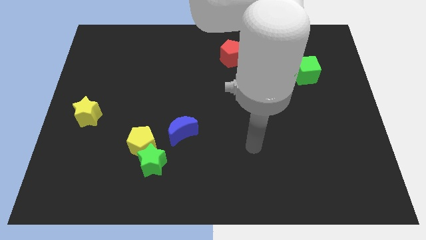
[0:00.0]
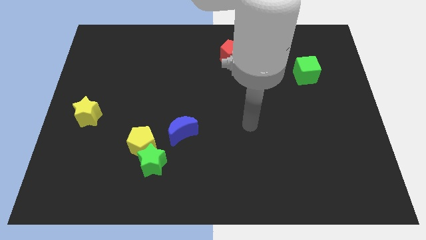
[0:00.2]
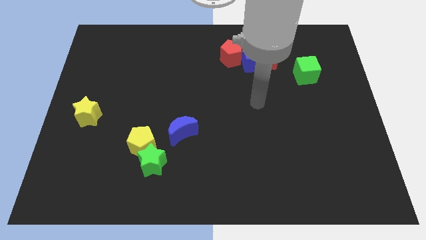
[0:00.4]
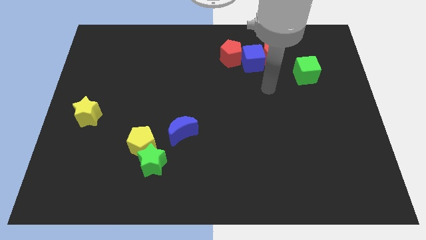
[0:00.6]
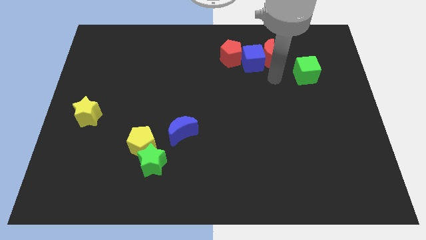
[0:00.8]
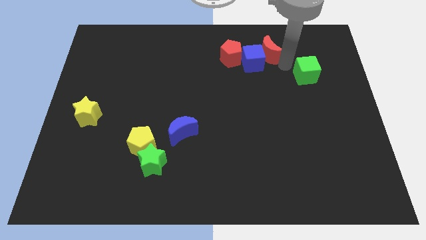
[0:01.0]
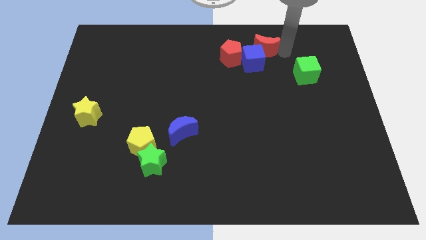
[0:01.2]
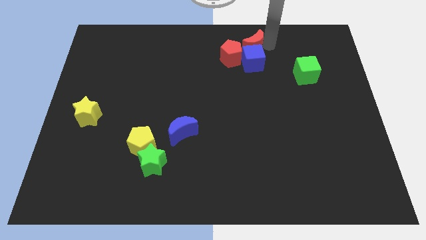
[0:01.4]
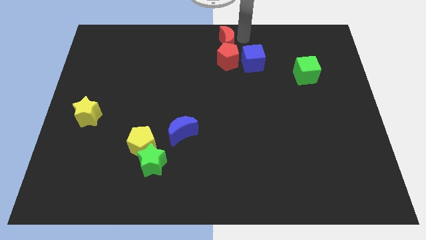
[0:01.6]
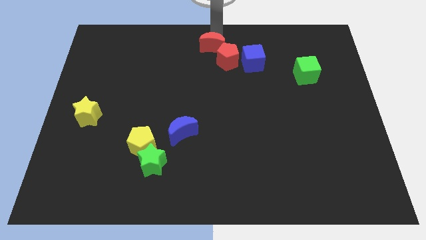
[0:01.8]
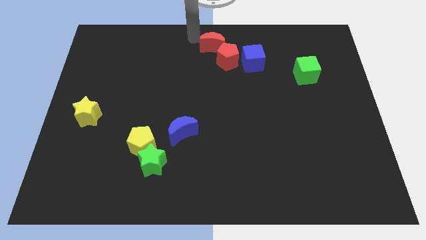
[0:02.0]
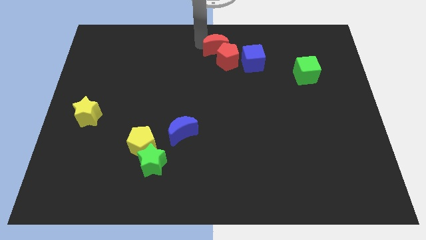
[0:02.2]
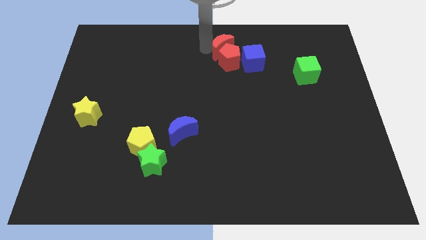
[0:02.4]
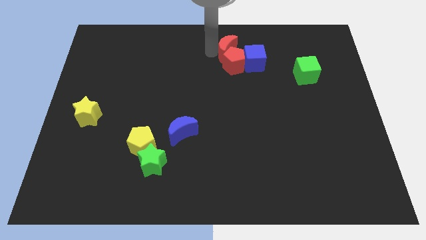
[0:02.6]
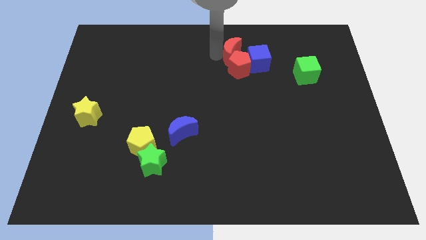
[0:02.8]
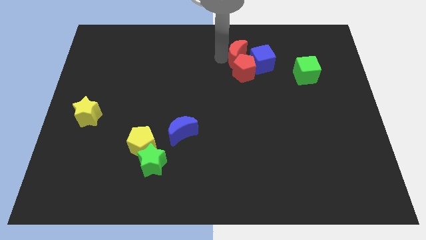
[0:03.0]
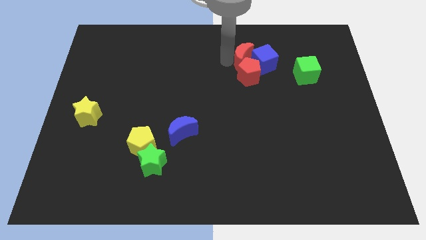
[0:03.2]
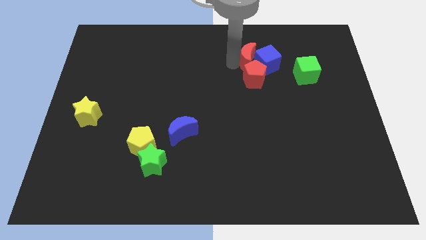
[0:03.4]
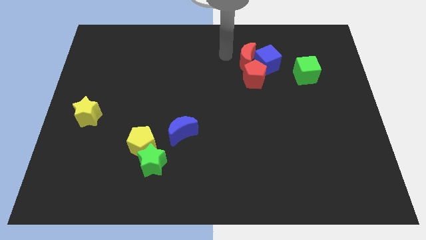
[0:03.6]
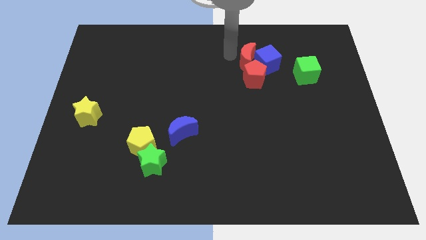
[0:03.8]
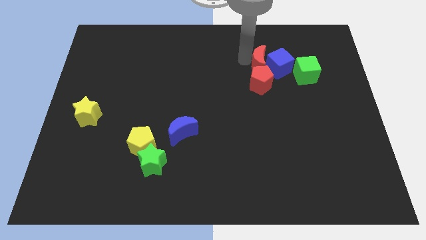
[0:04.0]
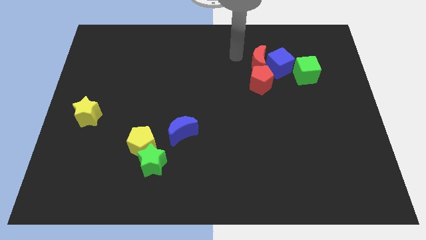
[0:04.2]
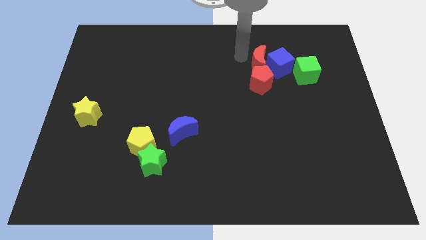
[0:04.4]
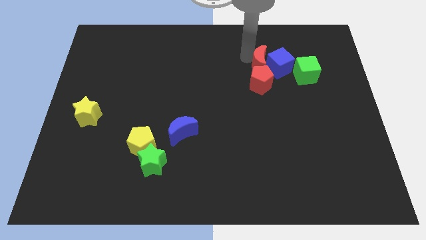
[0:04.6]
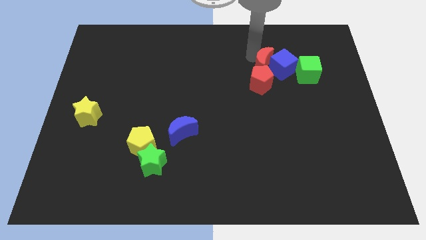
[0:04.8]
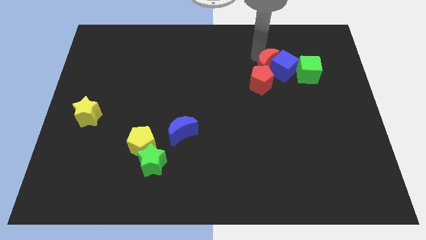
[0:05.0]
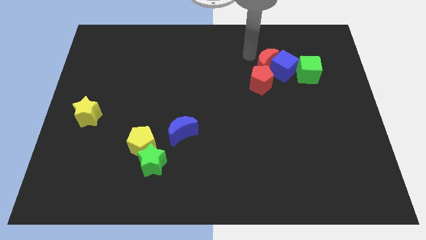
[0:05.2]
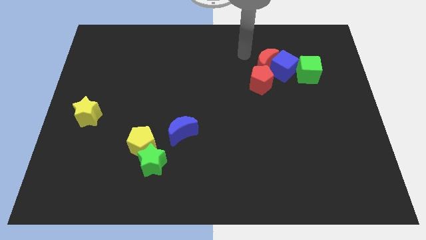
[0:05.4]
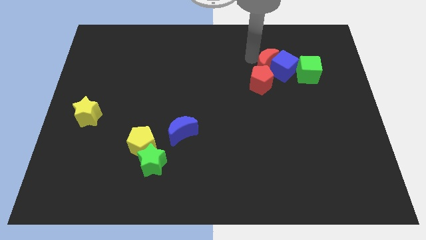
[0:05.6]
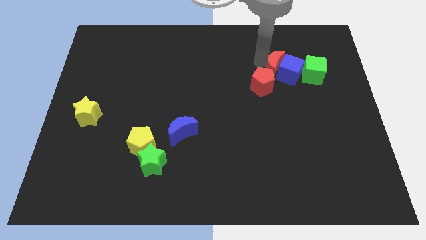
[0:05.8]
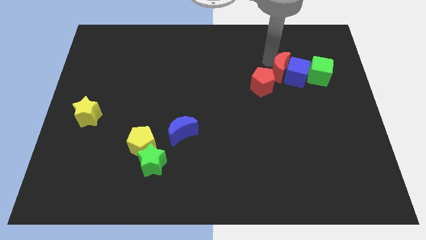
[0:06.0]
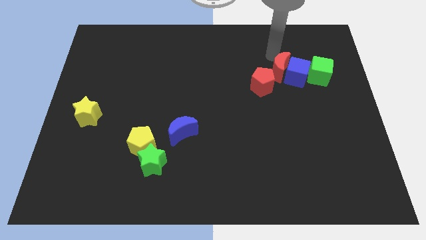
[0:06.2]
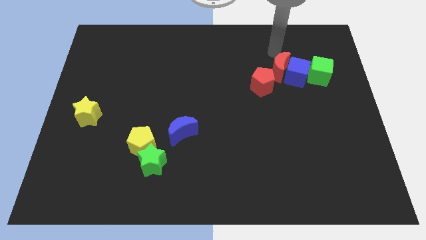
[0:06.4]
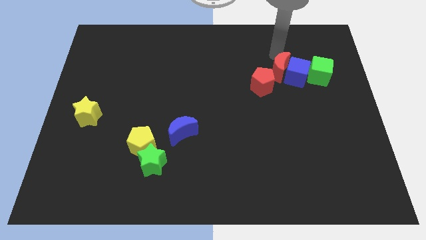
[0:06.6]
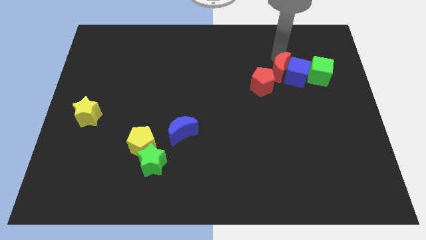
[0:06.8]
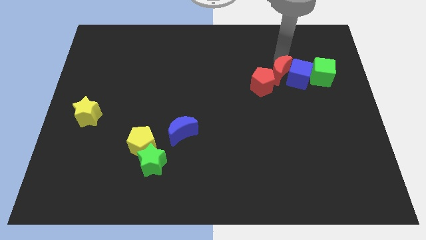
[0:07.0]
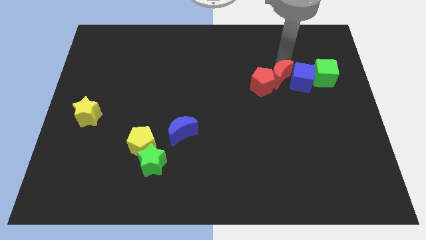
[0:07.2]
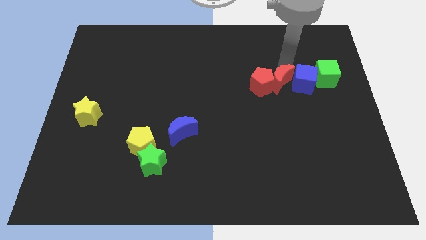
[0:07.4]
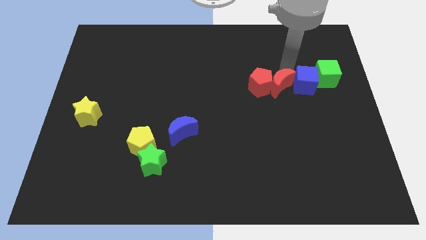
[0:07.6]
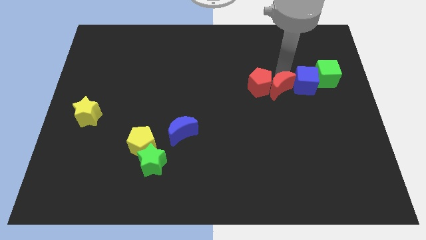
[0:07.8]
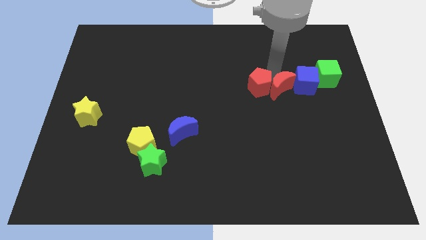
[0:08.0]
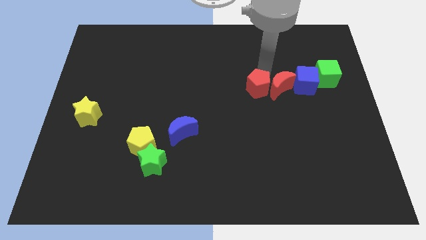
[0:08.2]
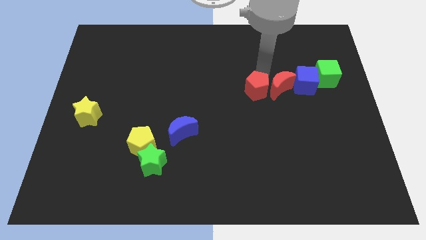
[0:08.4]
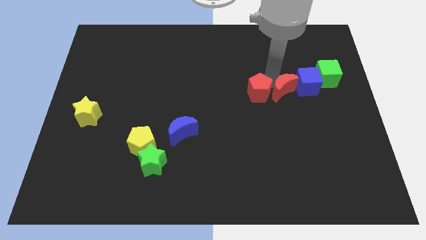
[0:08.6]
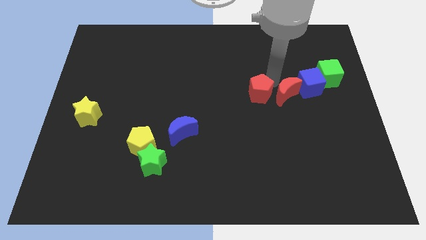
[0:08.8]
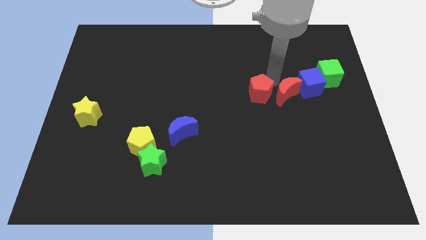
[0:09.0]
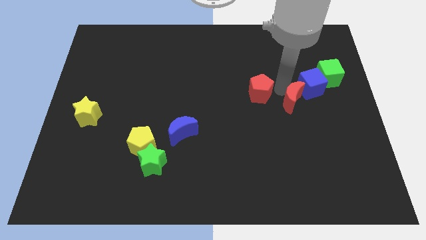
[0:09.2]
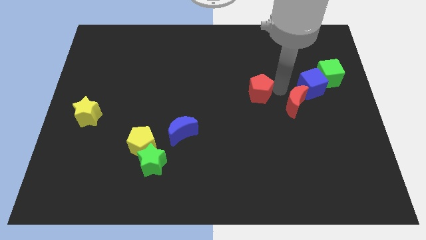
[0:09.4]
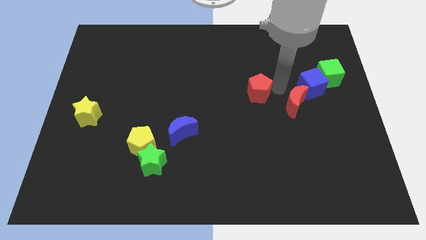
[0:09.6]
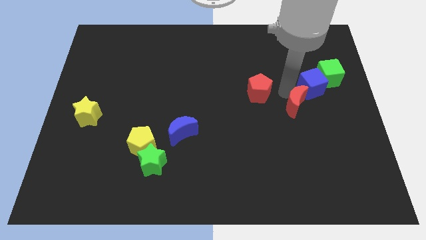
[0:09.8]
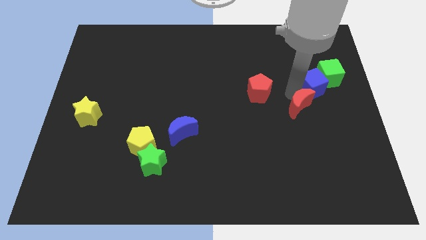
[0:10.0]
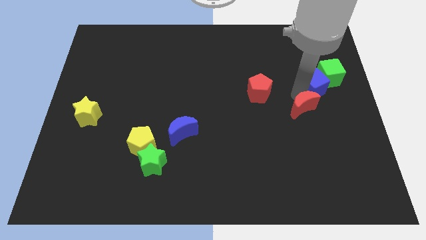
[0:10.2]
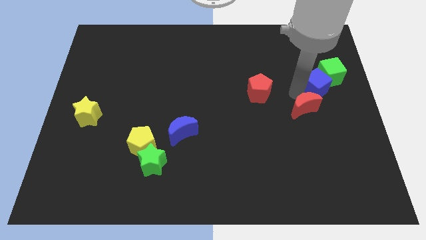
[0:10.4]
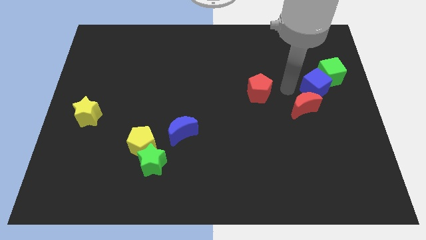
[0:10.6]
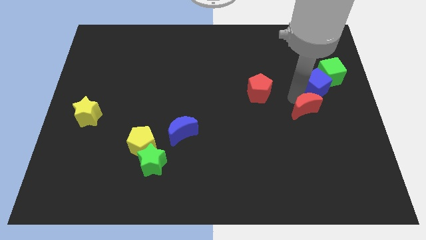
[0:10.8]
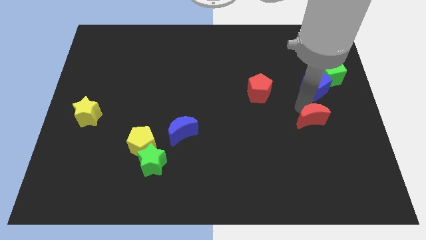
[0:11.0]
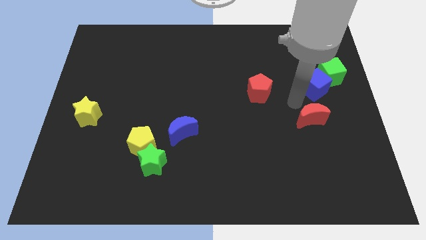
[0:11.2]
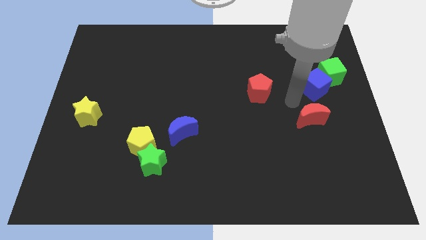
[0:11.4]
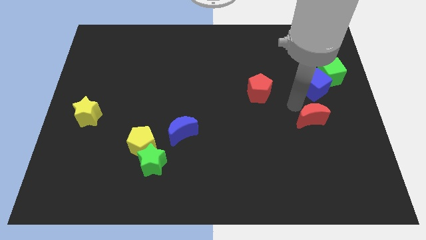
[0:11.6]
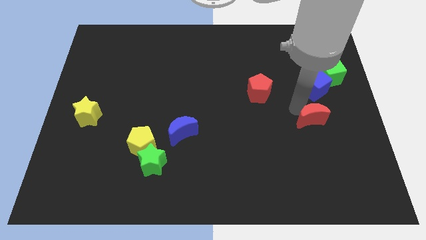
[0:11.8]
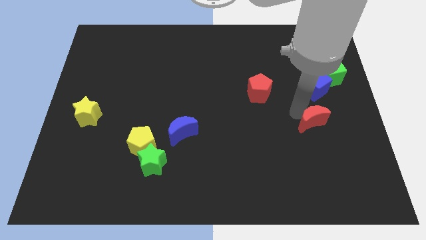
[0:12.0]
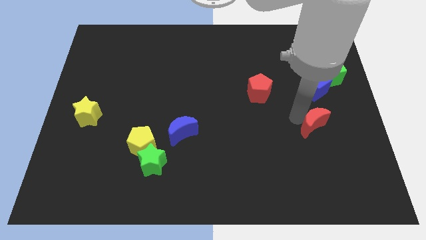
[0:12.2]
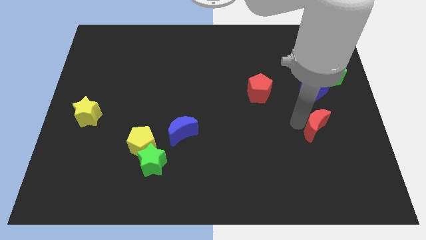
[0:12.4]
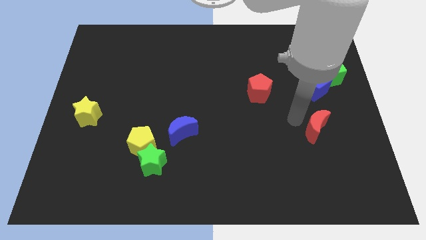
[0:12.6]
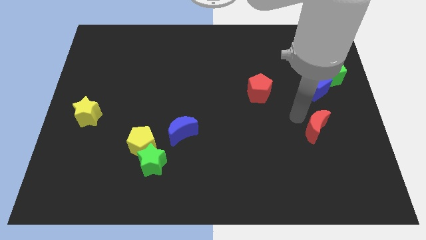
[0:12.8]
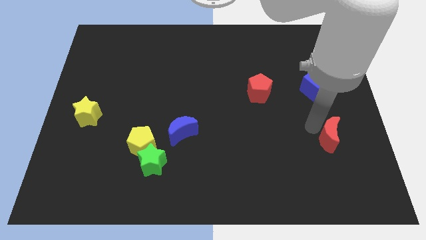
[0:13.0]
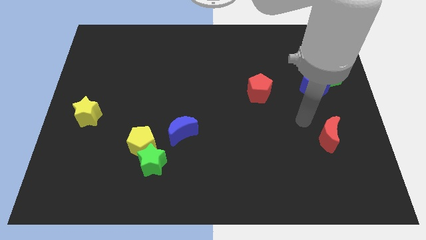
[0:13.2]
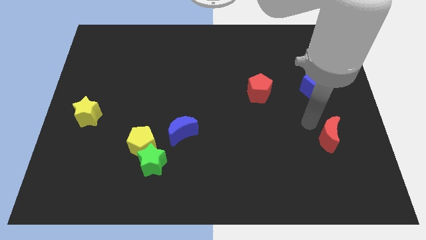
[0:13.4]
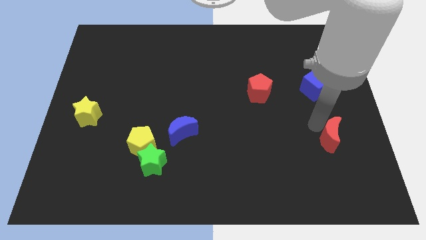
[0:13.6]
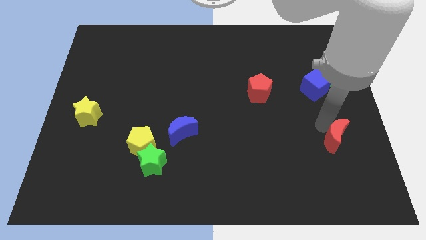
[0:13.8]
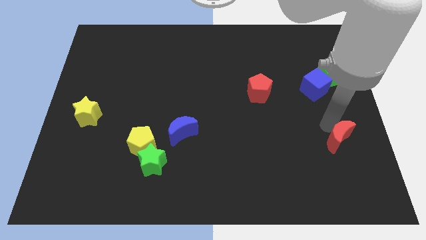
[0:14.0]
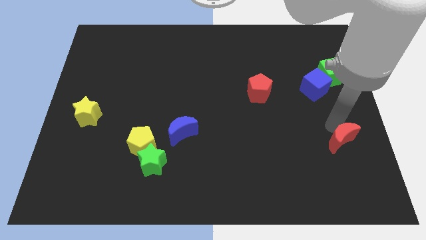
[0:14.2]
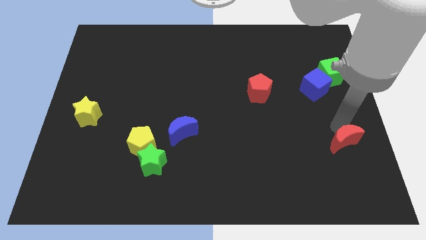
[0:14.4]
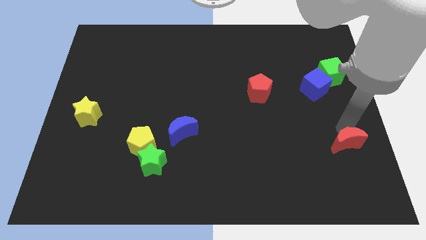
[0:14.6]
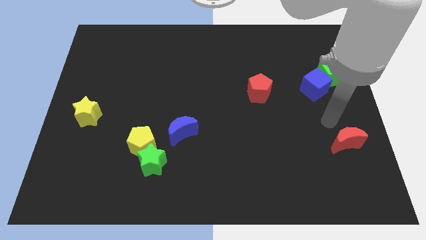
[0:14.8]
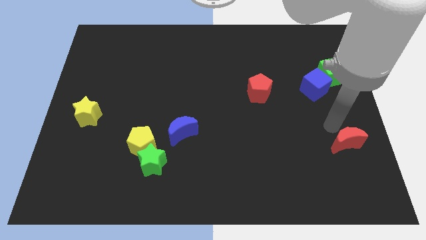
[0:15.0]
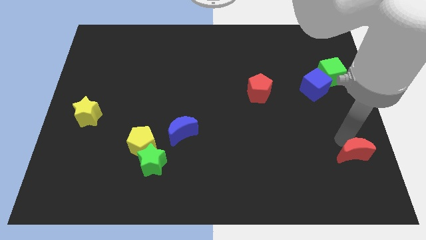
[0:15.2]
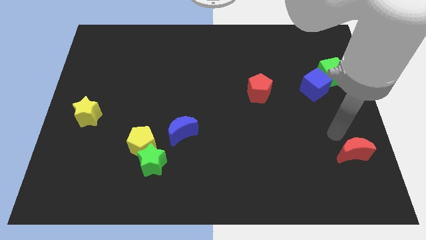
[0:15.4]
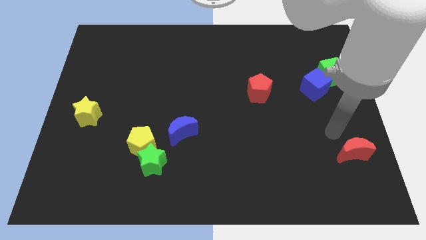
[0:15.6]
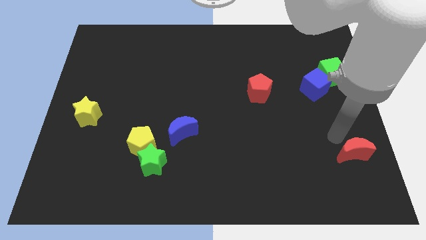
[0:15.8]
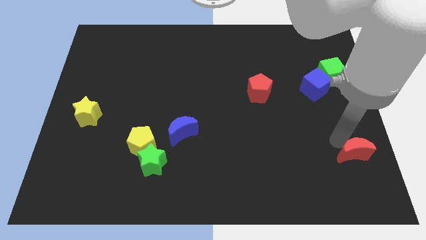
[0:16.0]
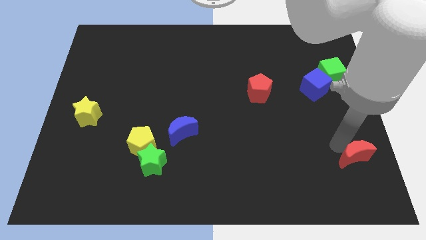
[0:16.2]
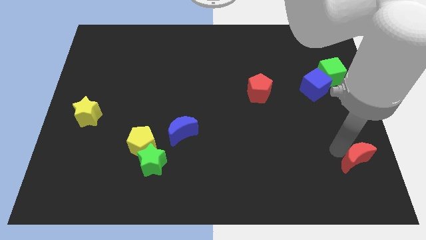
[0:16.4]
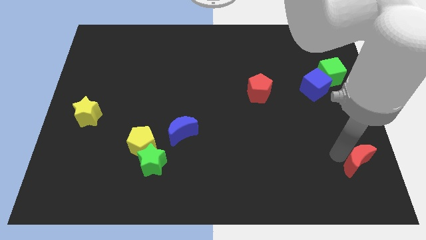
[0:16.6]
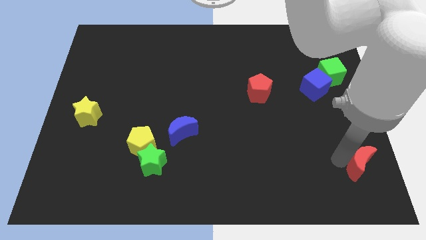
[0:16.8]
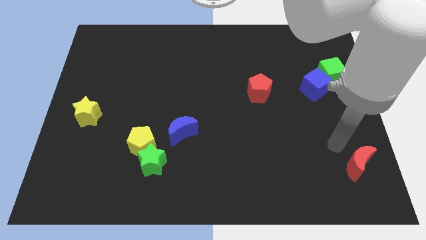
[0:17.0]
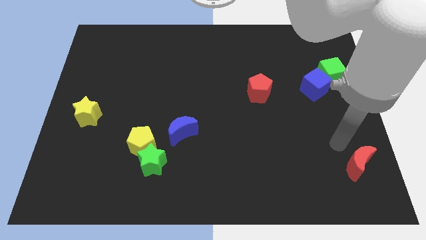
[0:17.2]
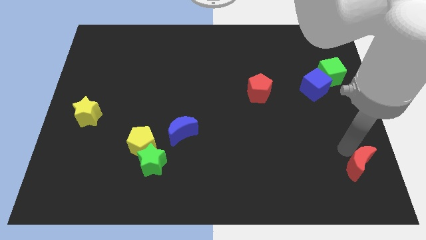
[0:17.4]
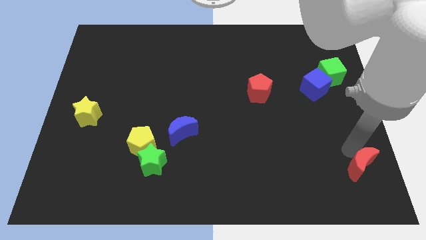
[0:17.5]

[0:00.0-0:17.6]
push the red moon to the bottom right corner
